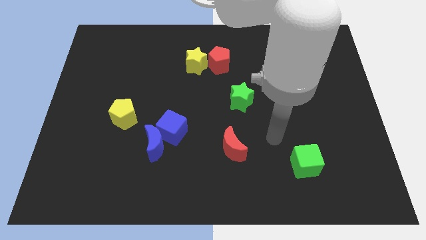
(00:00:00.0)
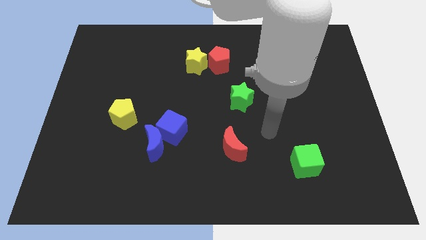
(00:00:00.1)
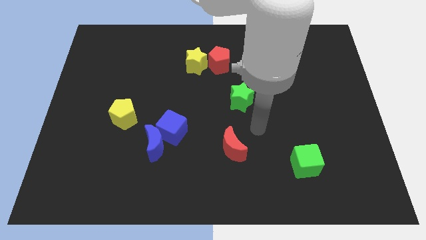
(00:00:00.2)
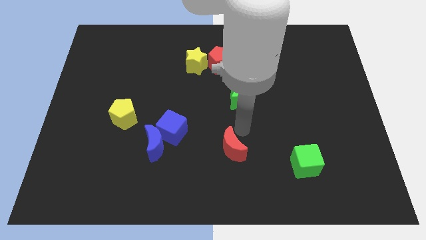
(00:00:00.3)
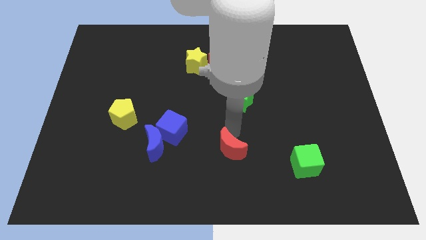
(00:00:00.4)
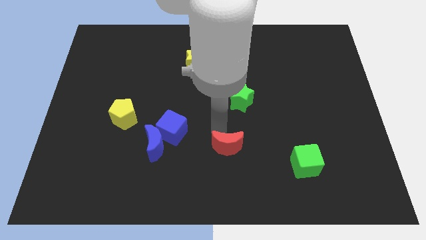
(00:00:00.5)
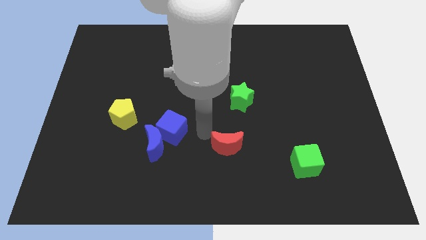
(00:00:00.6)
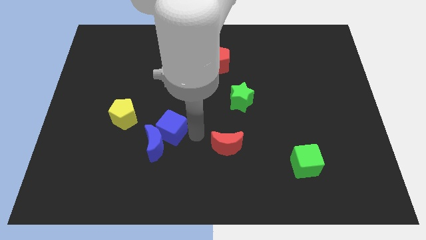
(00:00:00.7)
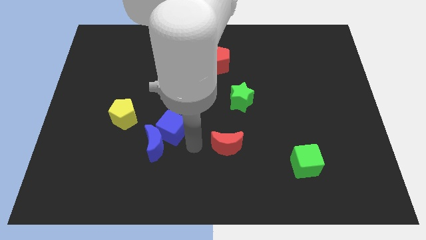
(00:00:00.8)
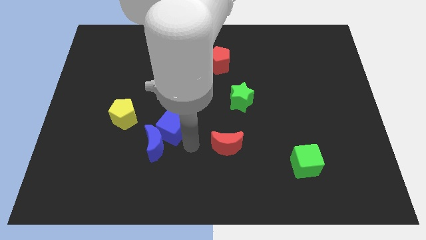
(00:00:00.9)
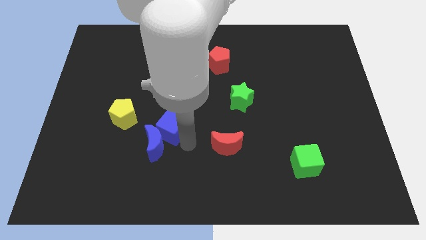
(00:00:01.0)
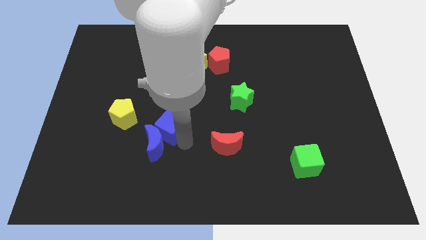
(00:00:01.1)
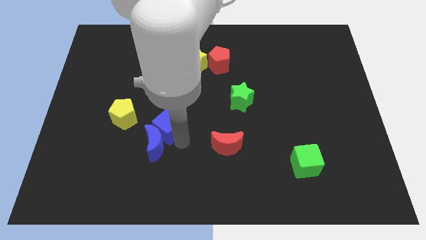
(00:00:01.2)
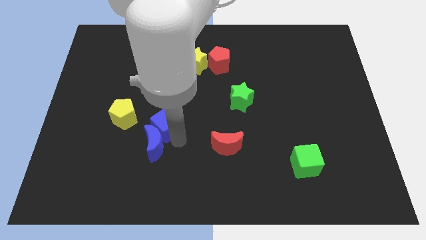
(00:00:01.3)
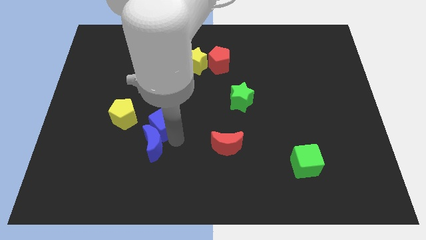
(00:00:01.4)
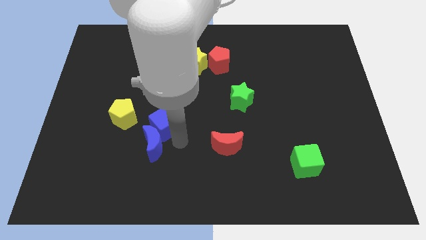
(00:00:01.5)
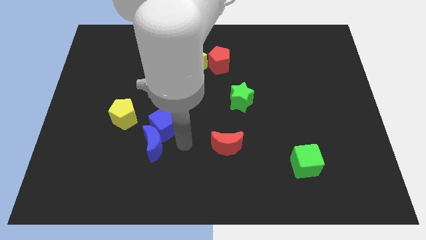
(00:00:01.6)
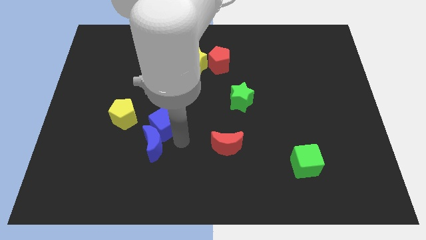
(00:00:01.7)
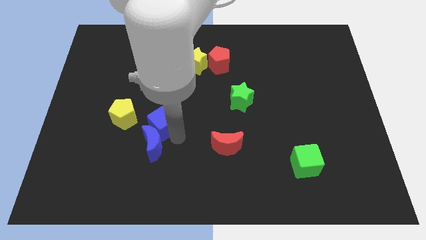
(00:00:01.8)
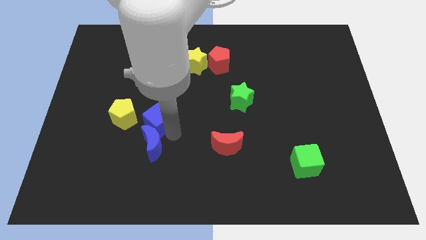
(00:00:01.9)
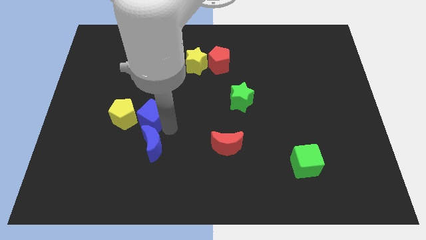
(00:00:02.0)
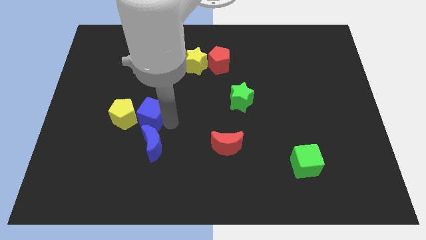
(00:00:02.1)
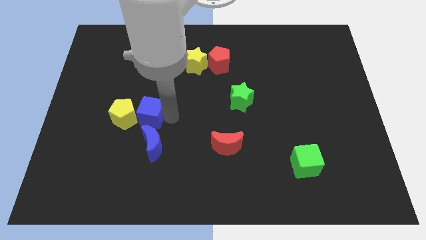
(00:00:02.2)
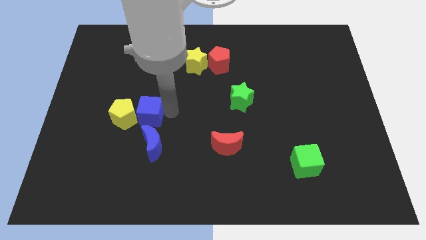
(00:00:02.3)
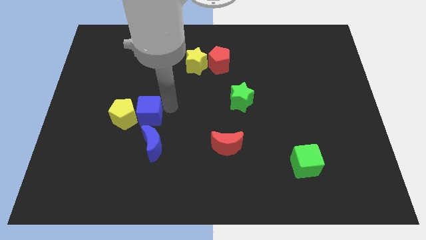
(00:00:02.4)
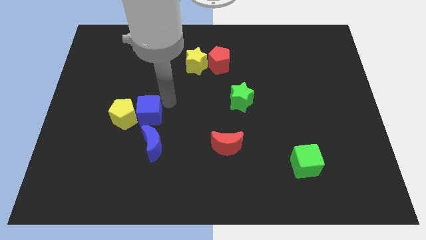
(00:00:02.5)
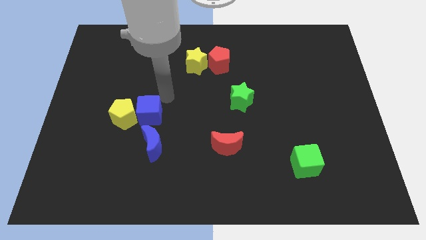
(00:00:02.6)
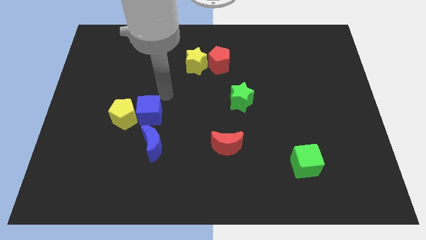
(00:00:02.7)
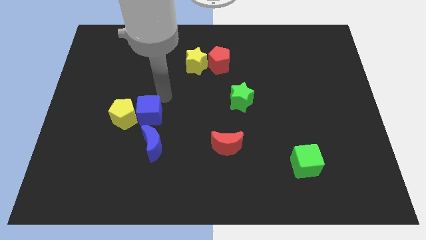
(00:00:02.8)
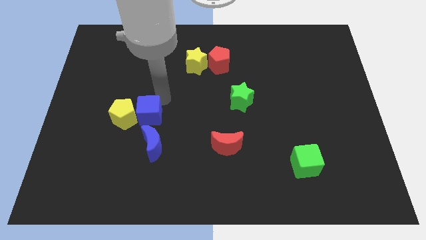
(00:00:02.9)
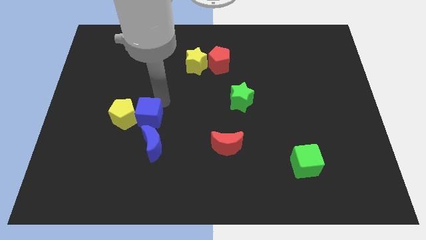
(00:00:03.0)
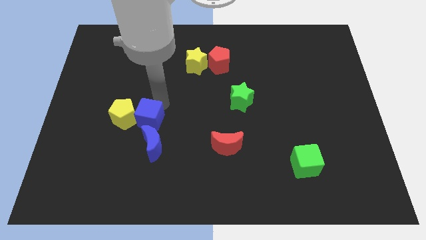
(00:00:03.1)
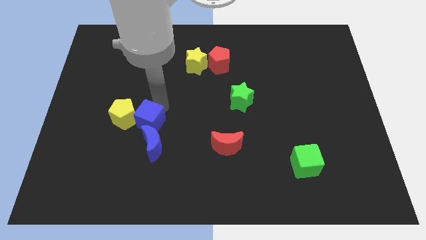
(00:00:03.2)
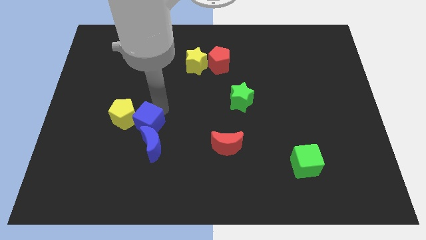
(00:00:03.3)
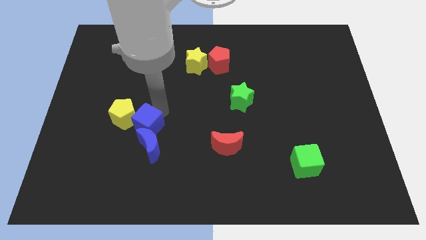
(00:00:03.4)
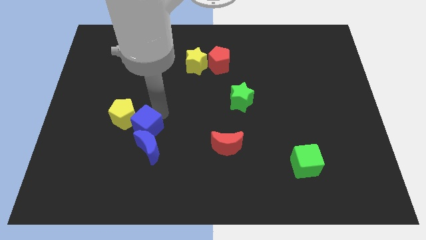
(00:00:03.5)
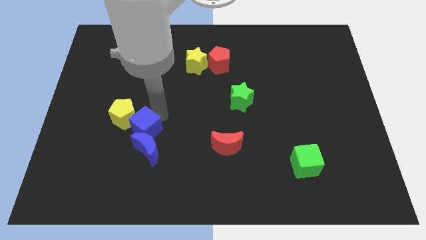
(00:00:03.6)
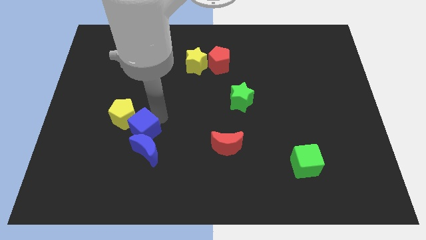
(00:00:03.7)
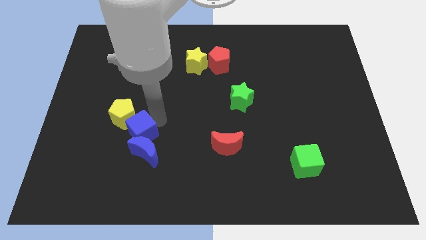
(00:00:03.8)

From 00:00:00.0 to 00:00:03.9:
slide the blue cube somewhat to the left

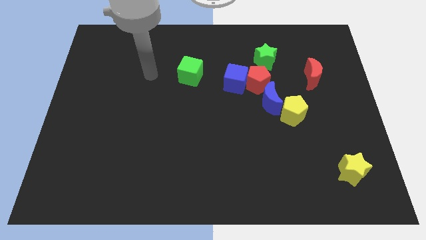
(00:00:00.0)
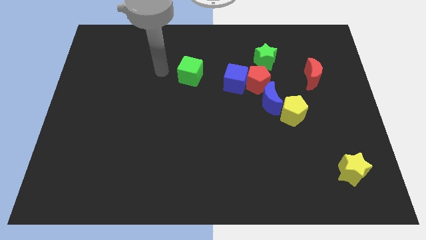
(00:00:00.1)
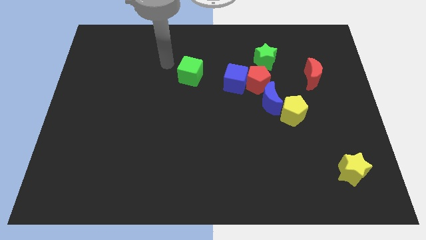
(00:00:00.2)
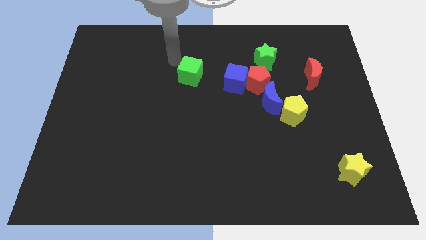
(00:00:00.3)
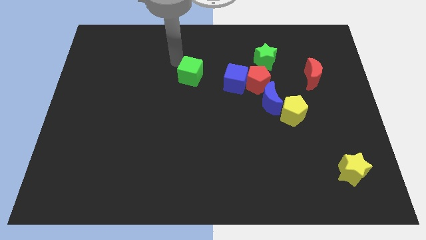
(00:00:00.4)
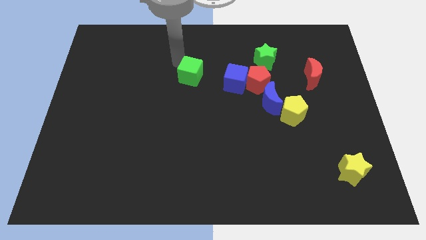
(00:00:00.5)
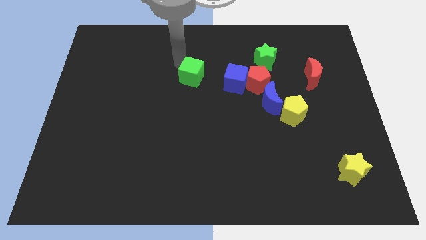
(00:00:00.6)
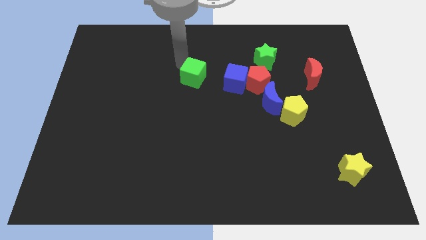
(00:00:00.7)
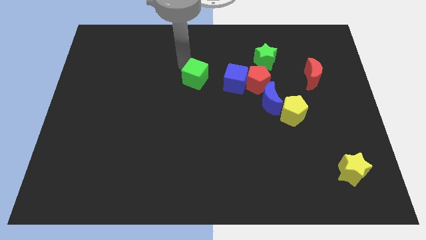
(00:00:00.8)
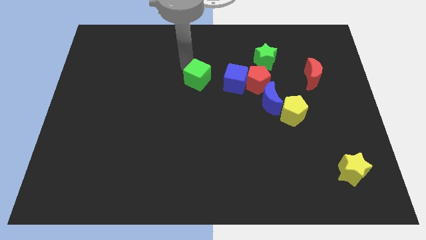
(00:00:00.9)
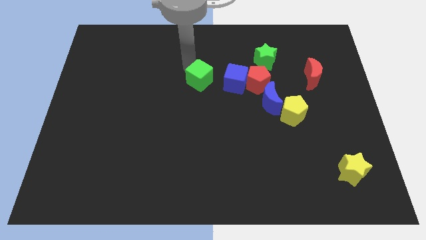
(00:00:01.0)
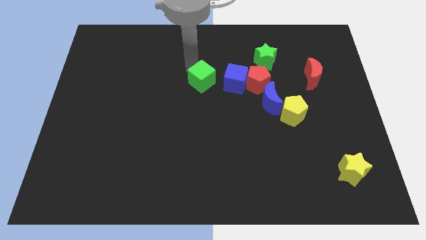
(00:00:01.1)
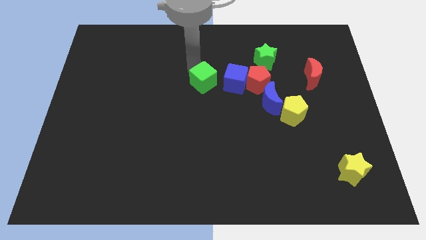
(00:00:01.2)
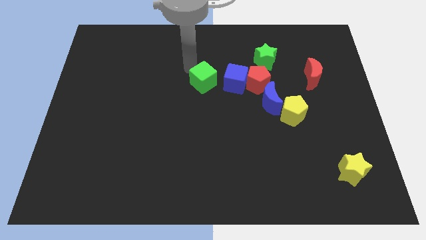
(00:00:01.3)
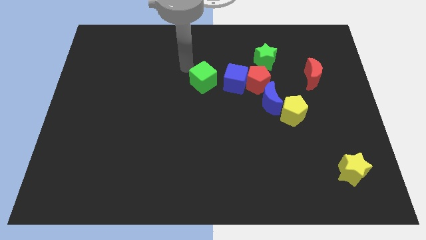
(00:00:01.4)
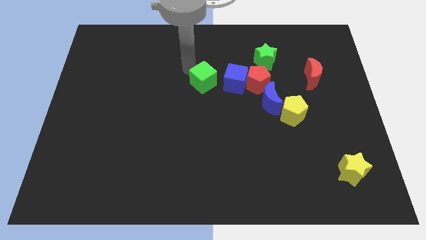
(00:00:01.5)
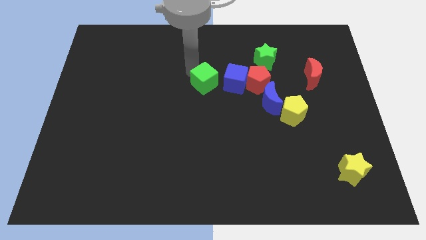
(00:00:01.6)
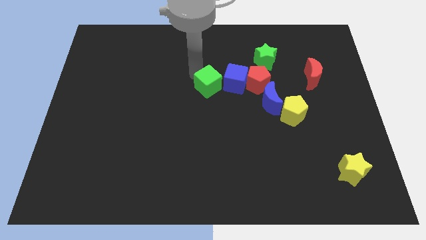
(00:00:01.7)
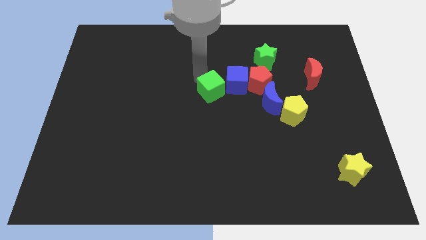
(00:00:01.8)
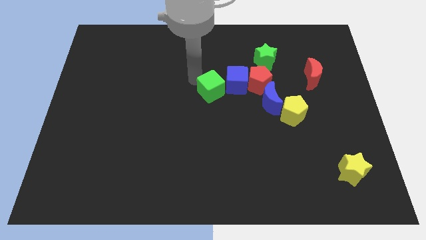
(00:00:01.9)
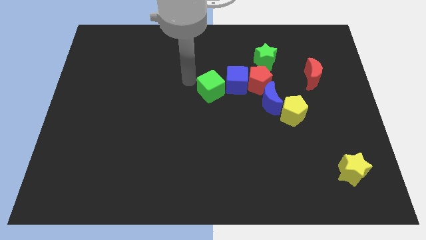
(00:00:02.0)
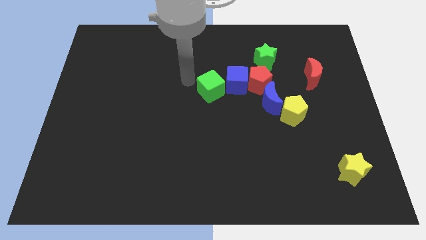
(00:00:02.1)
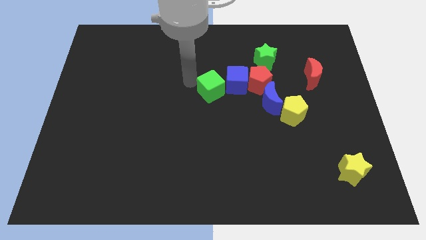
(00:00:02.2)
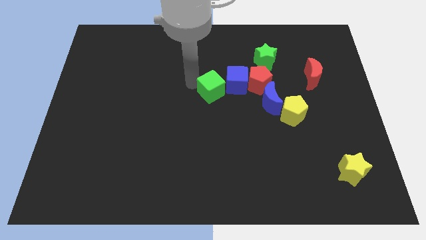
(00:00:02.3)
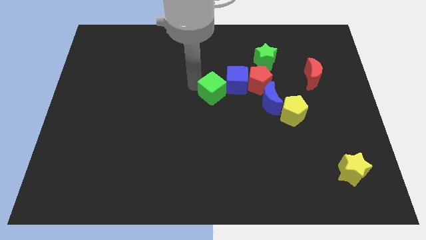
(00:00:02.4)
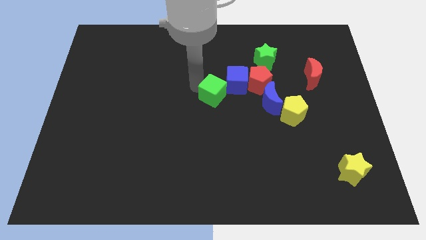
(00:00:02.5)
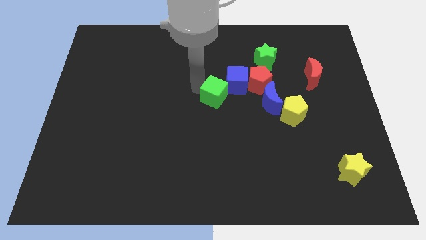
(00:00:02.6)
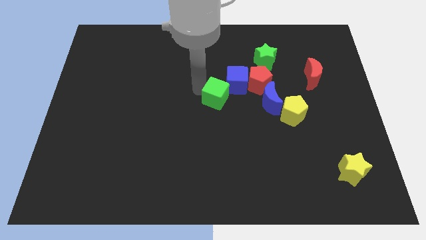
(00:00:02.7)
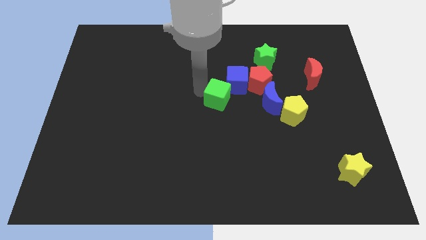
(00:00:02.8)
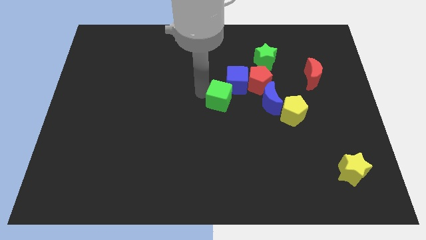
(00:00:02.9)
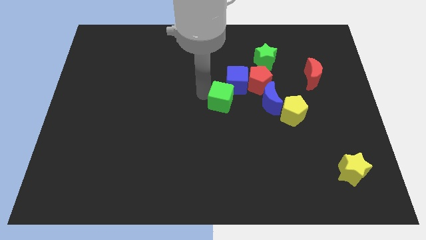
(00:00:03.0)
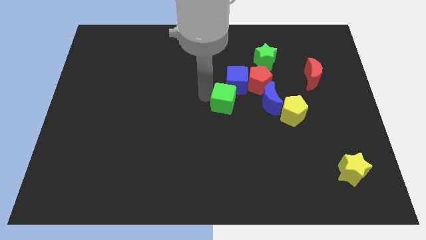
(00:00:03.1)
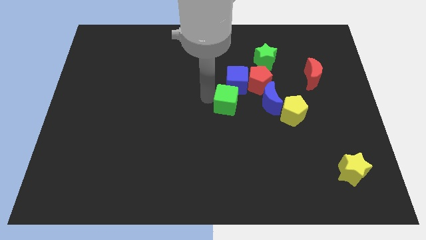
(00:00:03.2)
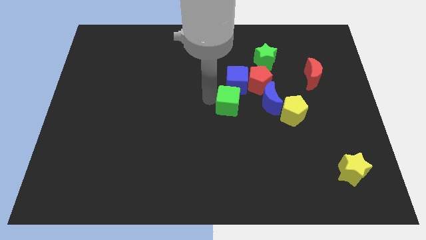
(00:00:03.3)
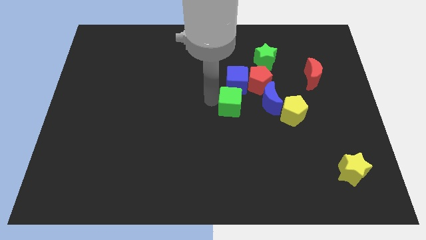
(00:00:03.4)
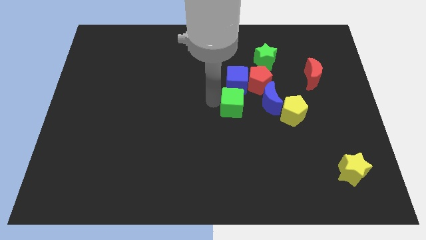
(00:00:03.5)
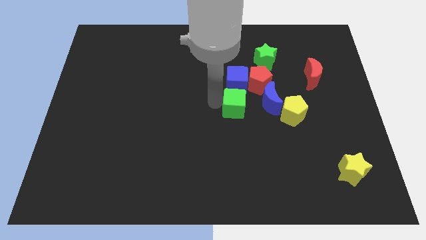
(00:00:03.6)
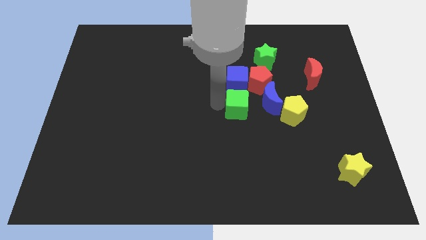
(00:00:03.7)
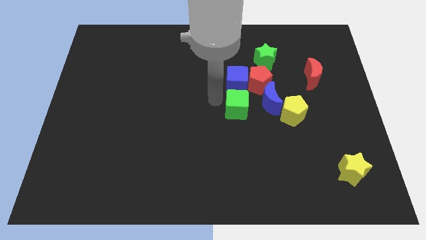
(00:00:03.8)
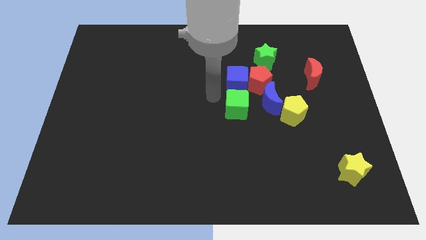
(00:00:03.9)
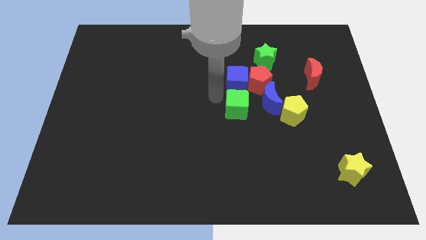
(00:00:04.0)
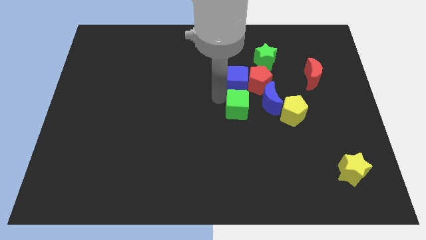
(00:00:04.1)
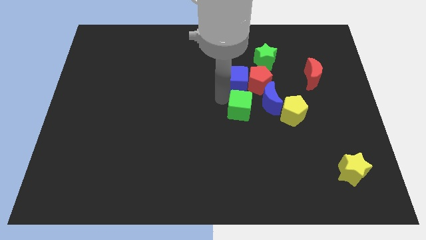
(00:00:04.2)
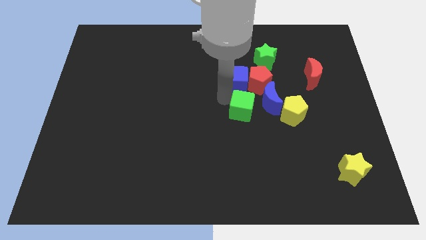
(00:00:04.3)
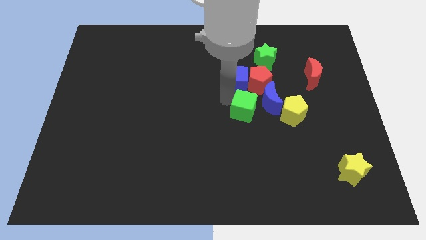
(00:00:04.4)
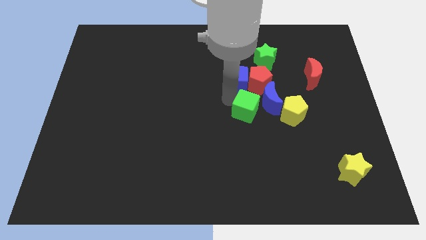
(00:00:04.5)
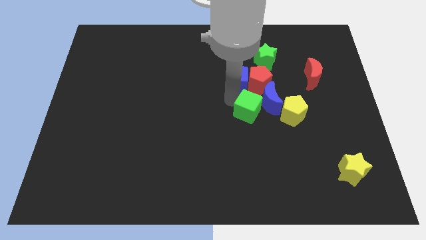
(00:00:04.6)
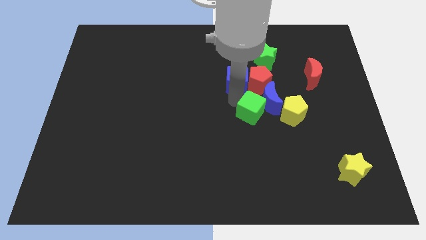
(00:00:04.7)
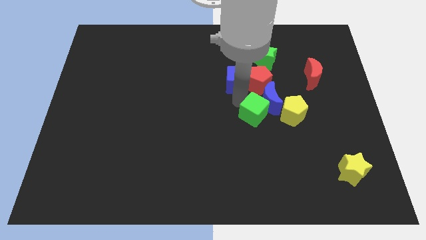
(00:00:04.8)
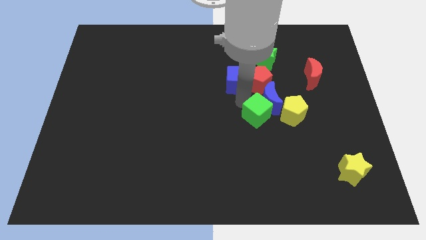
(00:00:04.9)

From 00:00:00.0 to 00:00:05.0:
move the green cube diagonally downwards and right
